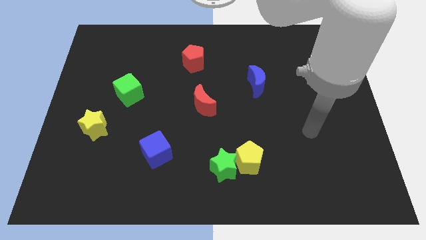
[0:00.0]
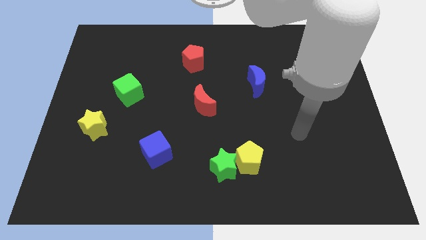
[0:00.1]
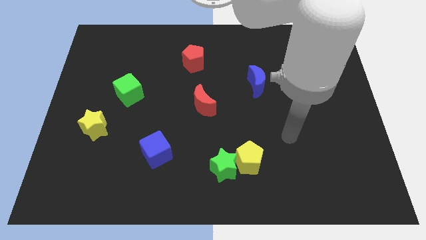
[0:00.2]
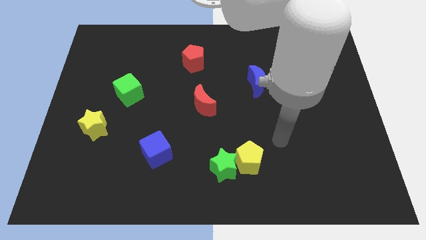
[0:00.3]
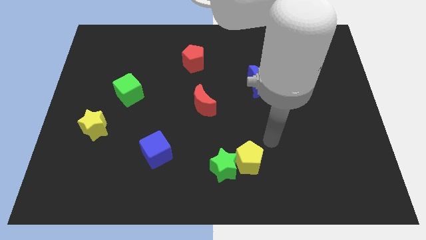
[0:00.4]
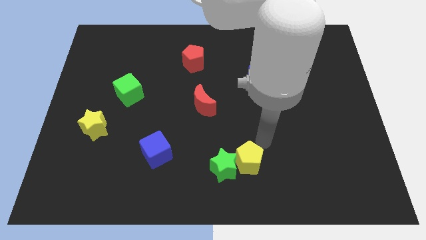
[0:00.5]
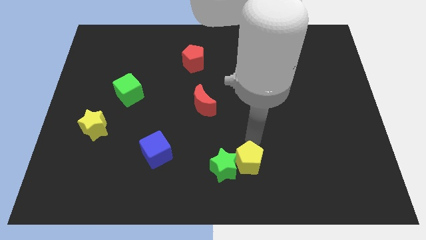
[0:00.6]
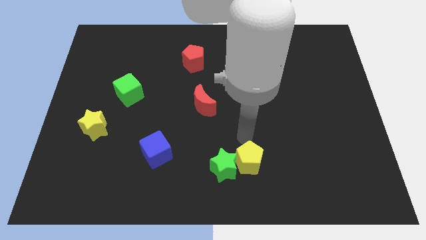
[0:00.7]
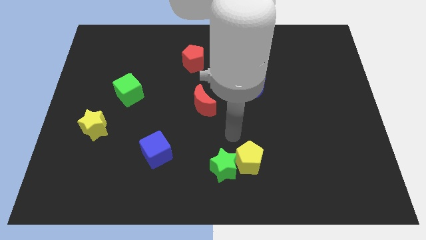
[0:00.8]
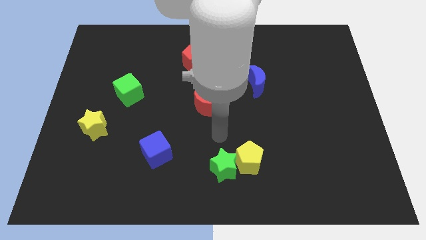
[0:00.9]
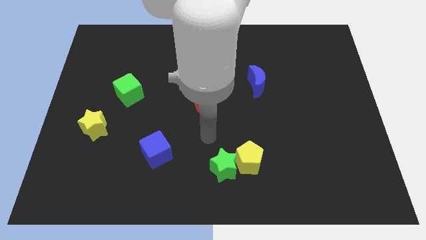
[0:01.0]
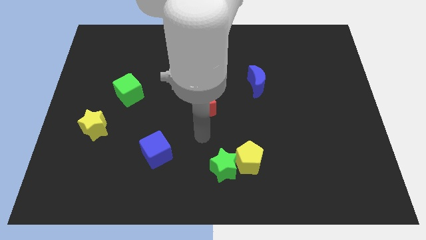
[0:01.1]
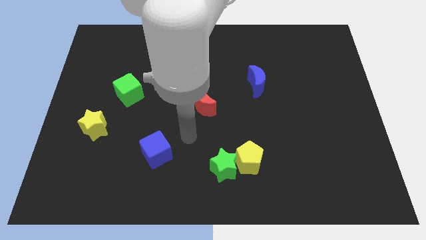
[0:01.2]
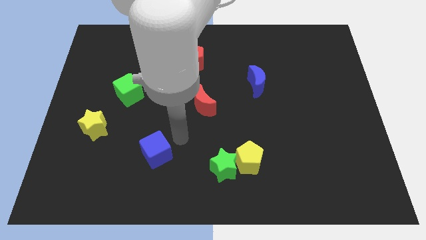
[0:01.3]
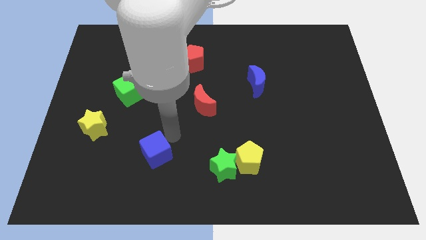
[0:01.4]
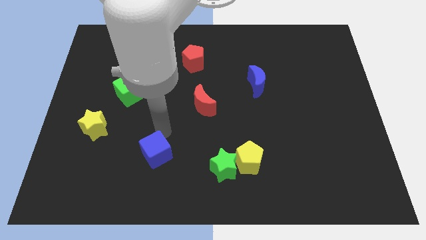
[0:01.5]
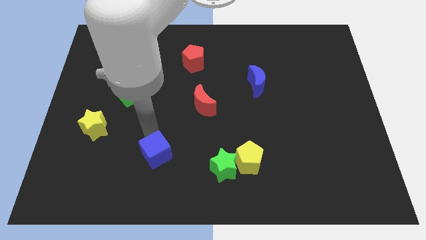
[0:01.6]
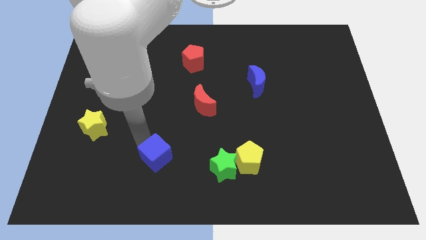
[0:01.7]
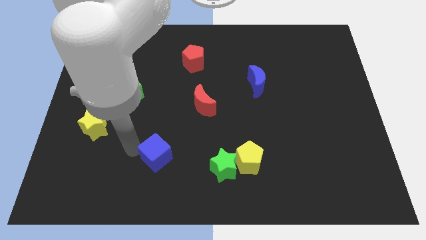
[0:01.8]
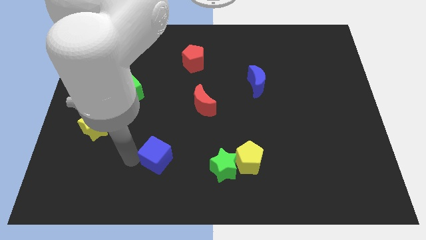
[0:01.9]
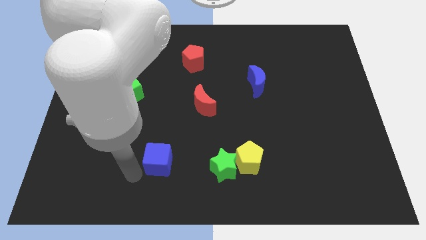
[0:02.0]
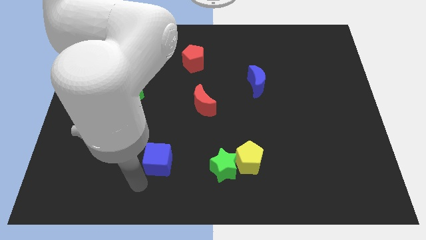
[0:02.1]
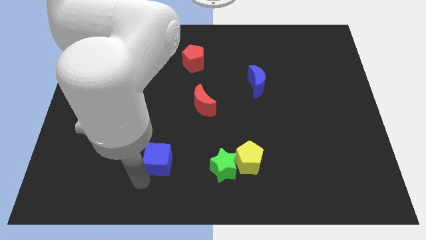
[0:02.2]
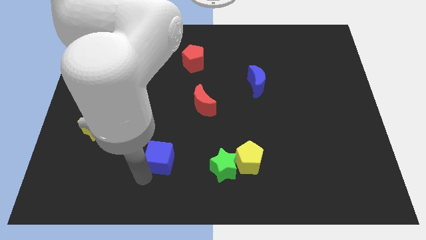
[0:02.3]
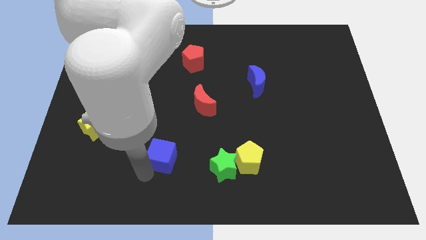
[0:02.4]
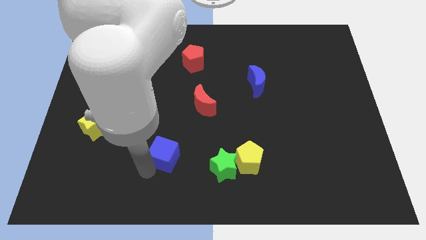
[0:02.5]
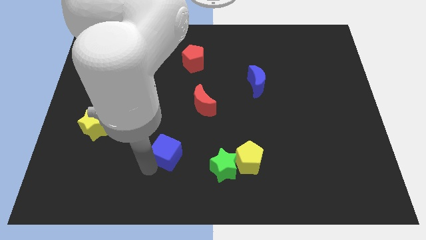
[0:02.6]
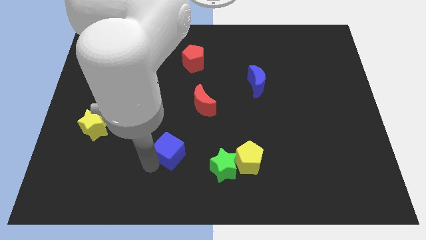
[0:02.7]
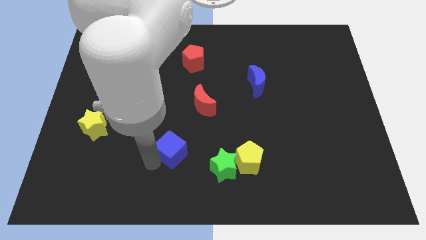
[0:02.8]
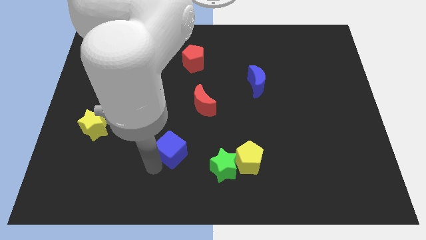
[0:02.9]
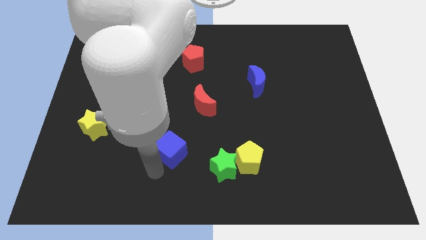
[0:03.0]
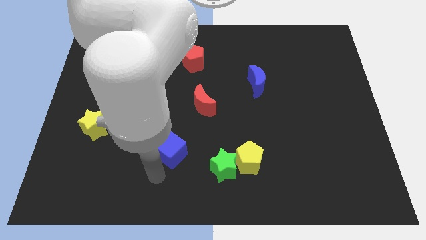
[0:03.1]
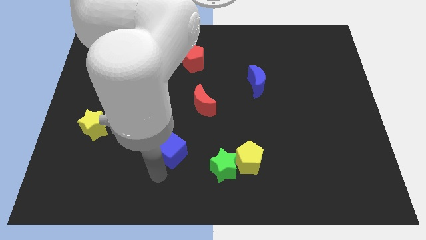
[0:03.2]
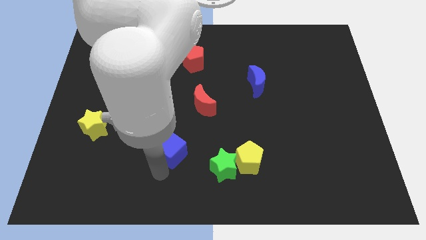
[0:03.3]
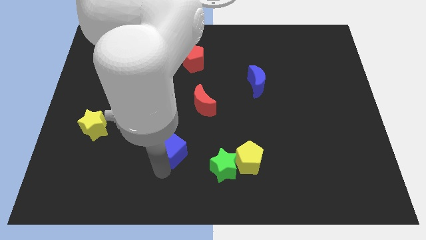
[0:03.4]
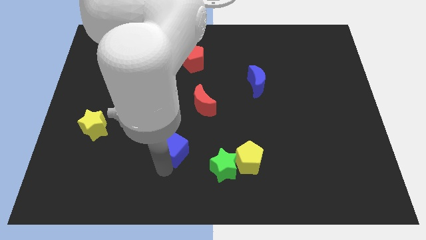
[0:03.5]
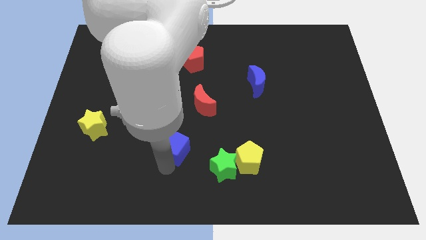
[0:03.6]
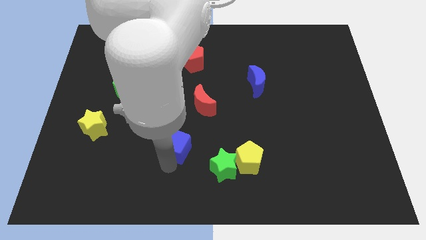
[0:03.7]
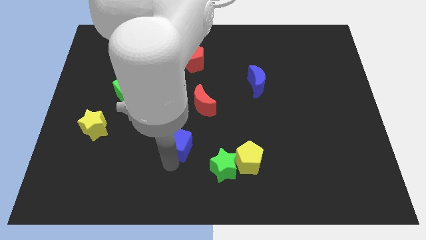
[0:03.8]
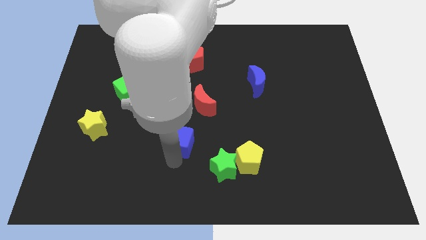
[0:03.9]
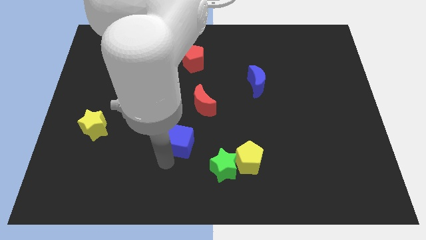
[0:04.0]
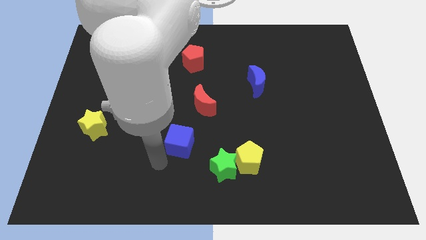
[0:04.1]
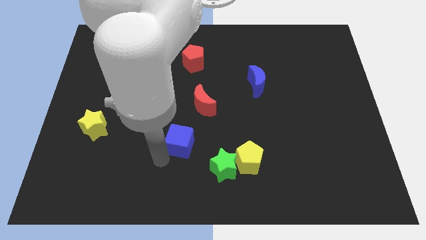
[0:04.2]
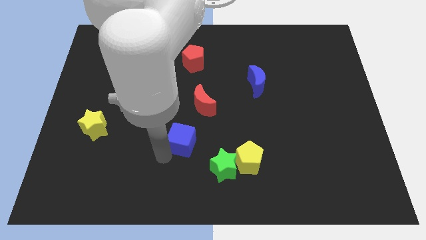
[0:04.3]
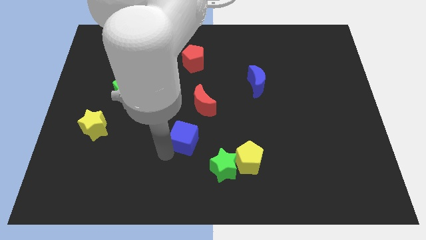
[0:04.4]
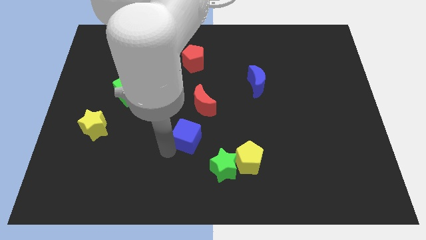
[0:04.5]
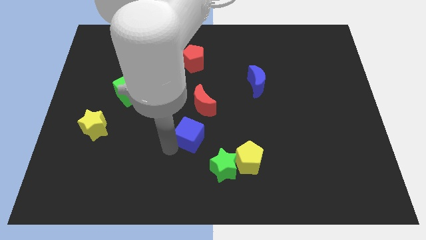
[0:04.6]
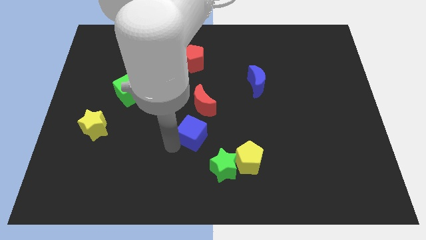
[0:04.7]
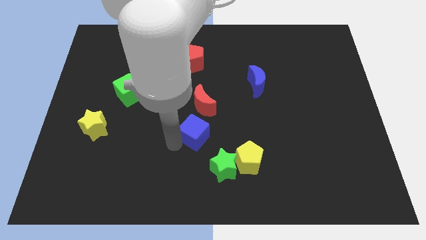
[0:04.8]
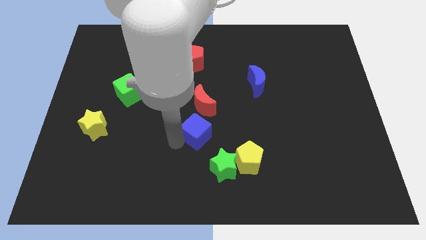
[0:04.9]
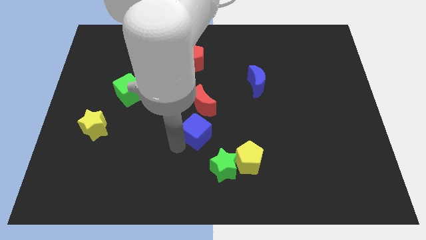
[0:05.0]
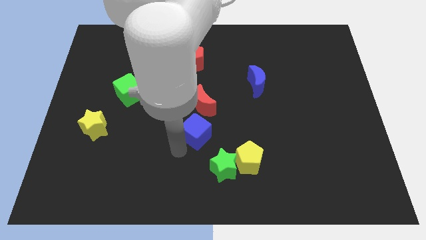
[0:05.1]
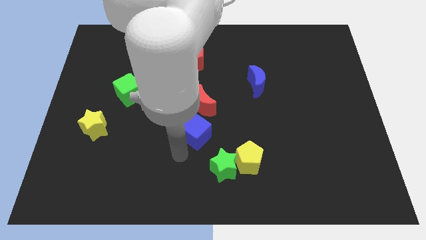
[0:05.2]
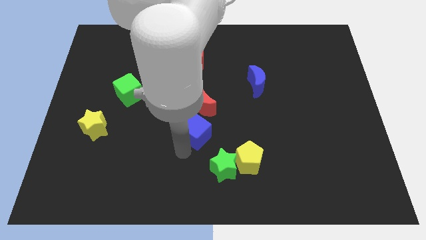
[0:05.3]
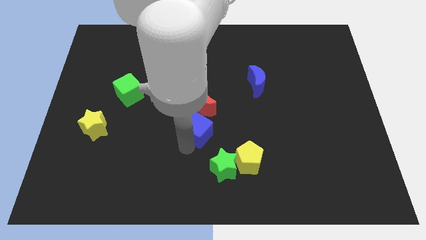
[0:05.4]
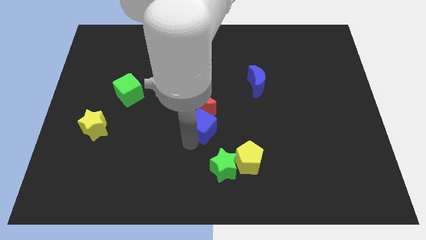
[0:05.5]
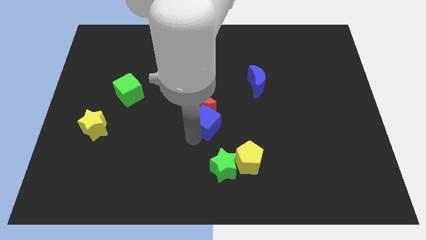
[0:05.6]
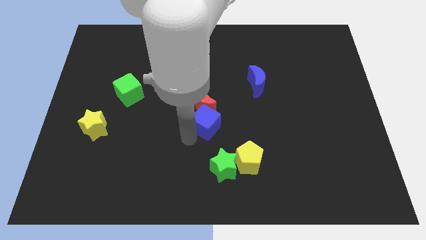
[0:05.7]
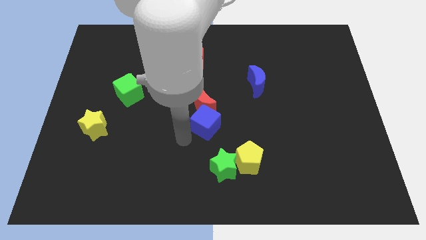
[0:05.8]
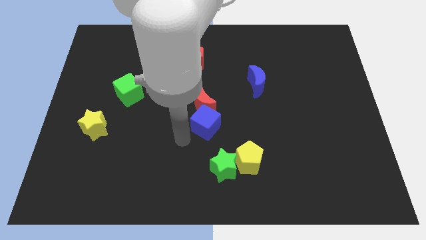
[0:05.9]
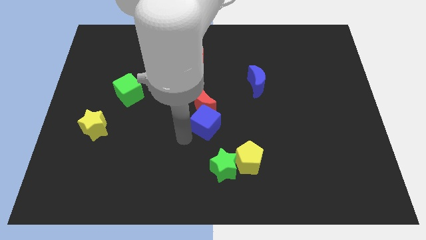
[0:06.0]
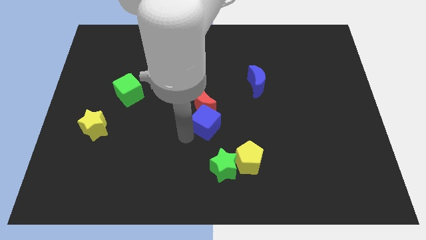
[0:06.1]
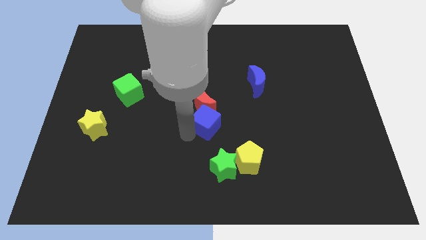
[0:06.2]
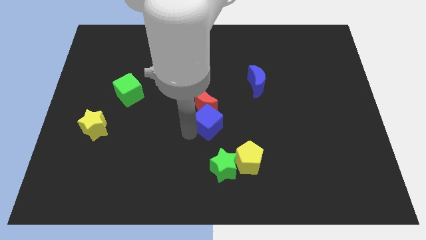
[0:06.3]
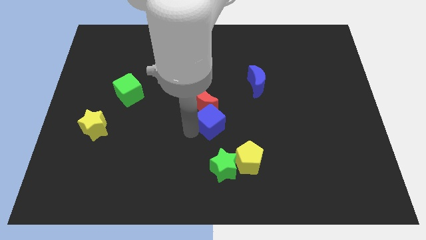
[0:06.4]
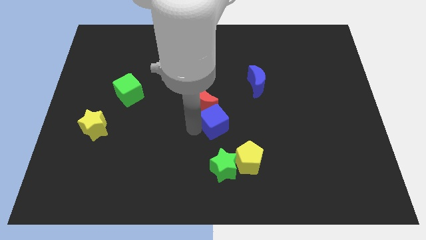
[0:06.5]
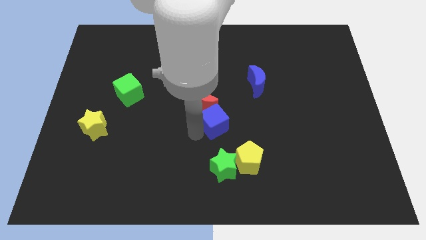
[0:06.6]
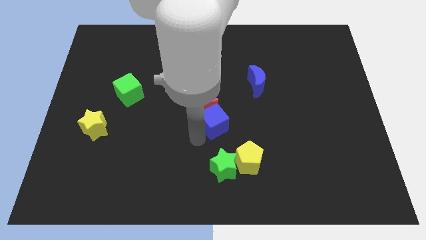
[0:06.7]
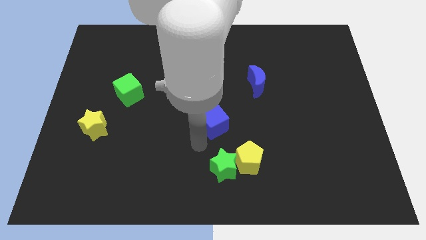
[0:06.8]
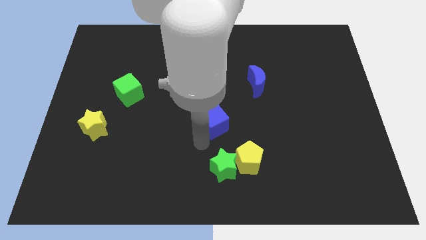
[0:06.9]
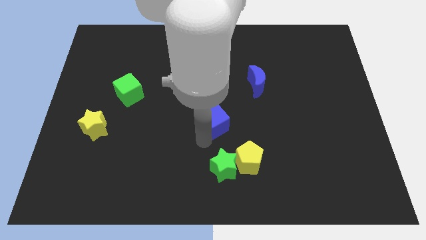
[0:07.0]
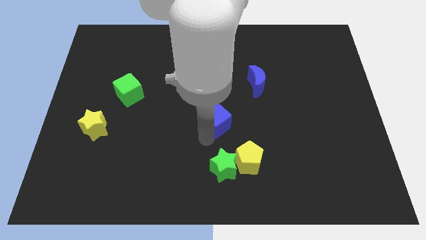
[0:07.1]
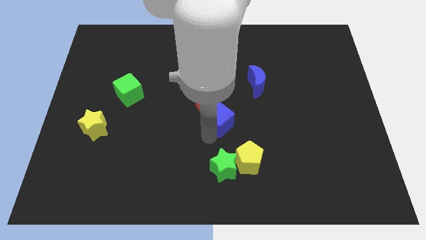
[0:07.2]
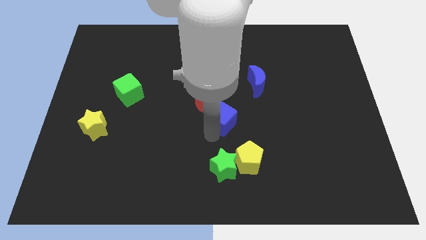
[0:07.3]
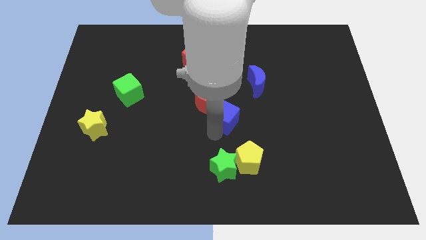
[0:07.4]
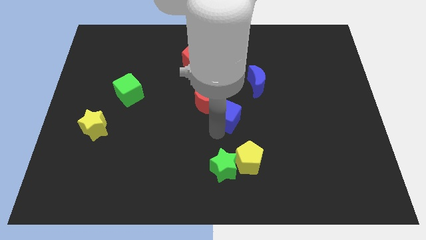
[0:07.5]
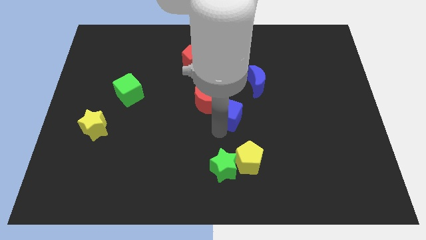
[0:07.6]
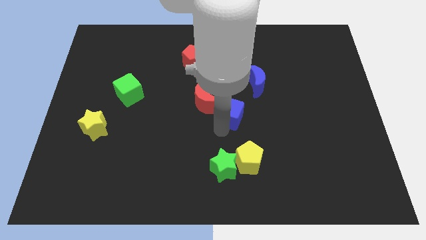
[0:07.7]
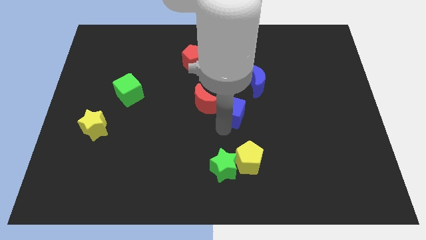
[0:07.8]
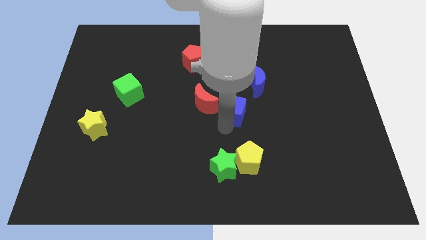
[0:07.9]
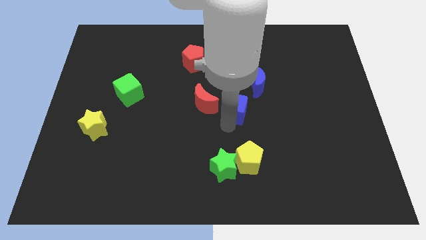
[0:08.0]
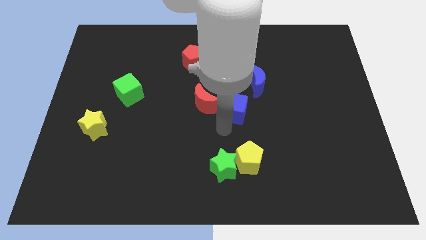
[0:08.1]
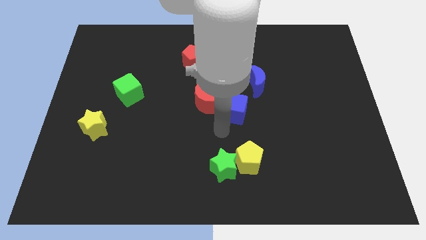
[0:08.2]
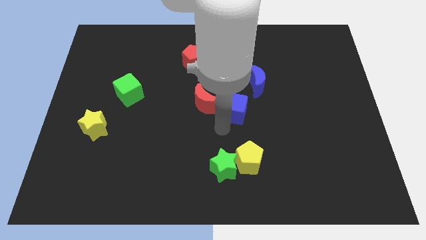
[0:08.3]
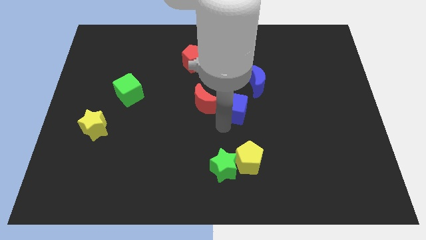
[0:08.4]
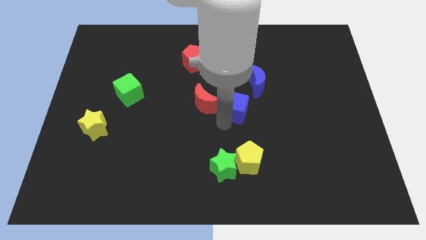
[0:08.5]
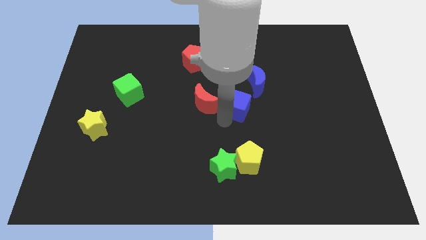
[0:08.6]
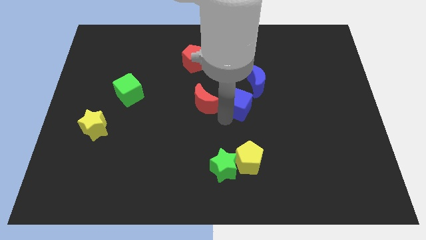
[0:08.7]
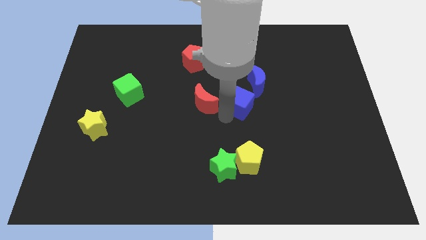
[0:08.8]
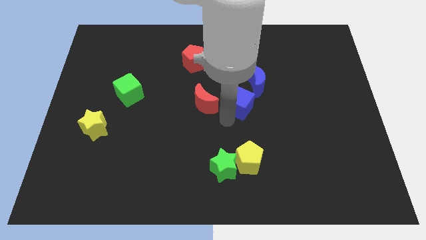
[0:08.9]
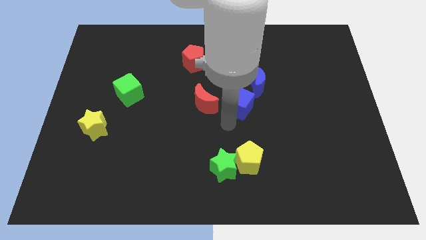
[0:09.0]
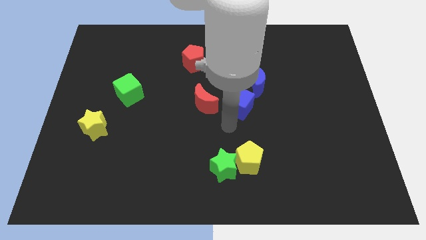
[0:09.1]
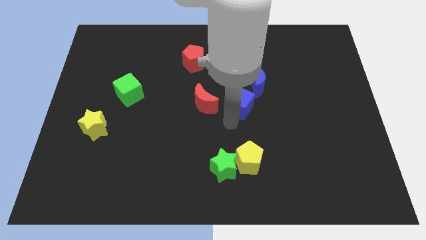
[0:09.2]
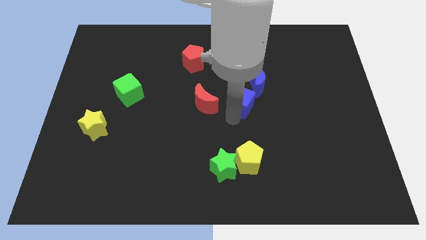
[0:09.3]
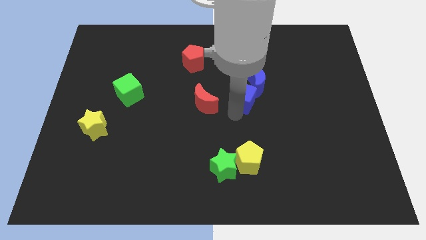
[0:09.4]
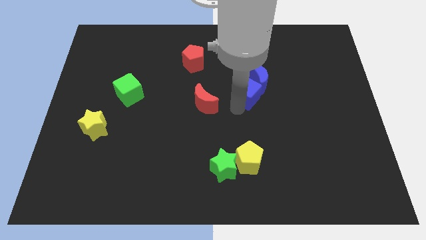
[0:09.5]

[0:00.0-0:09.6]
move the blue cube to the blue moon
